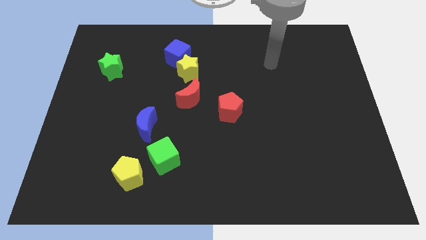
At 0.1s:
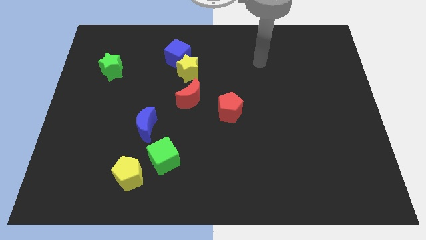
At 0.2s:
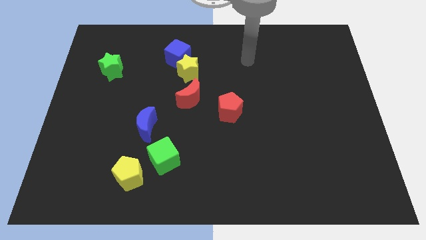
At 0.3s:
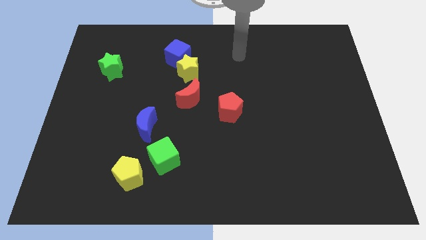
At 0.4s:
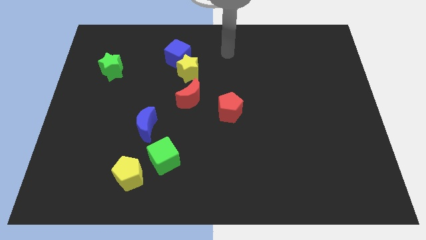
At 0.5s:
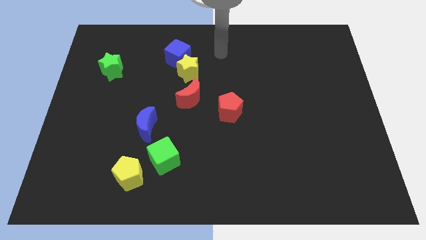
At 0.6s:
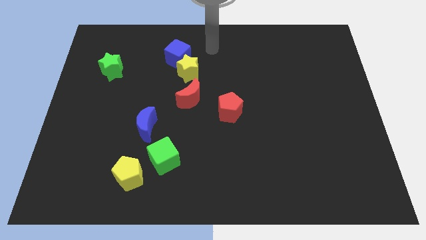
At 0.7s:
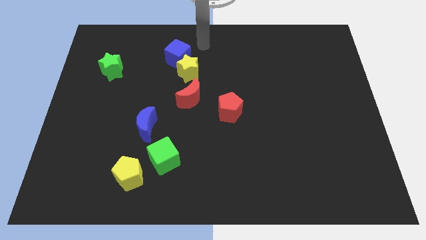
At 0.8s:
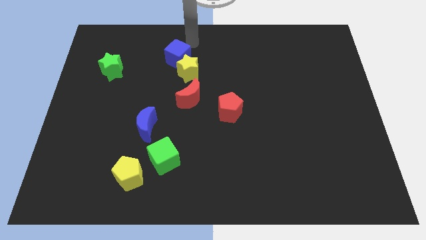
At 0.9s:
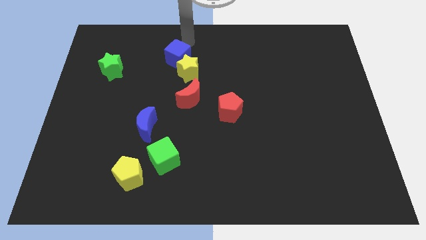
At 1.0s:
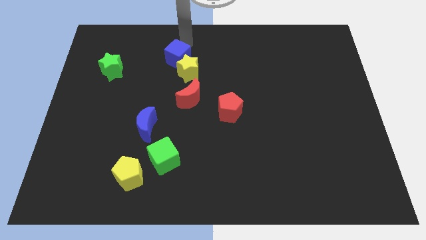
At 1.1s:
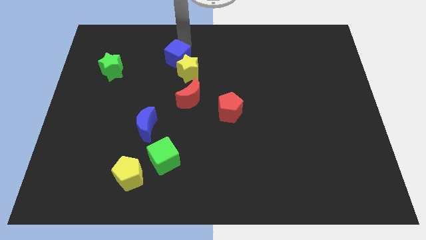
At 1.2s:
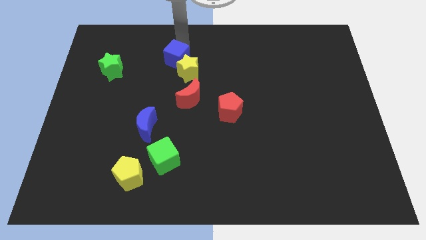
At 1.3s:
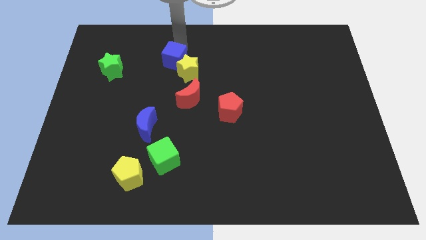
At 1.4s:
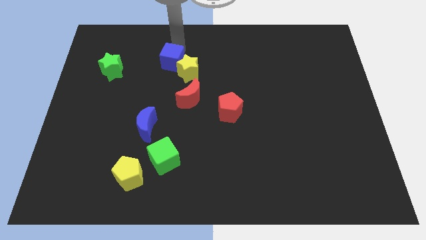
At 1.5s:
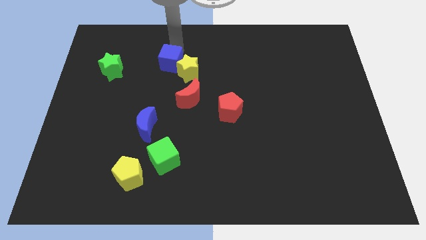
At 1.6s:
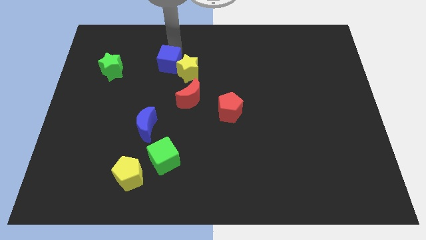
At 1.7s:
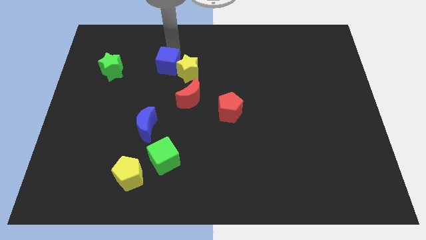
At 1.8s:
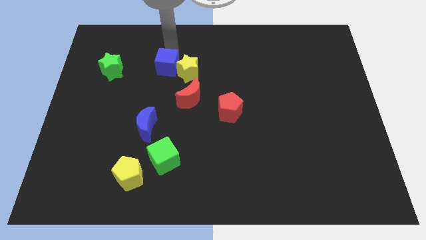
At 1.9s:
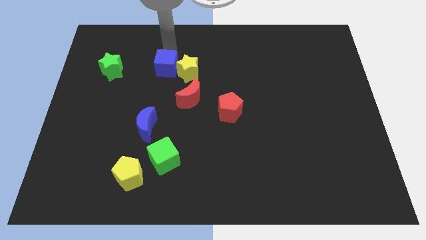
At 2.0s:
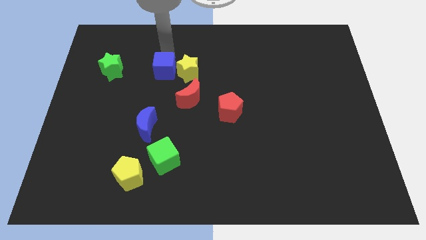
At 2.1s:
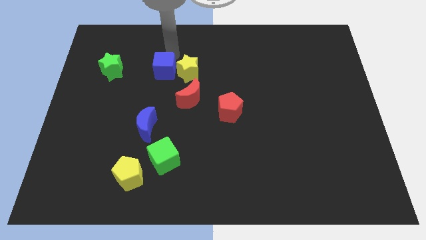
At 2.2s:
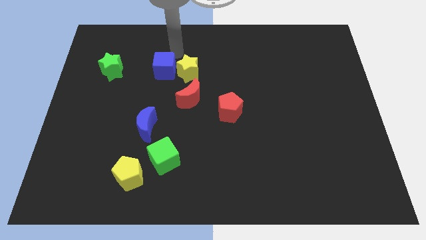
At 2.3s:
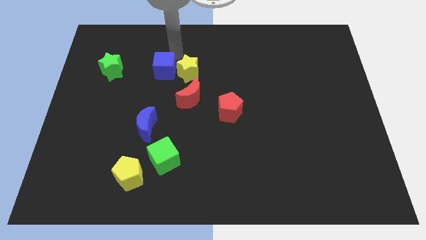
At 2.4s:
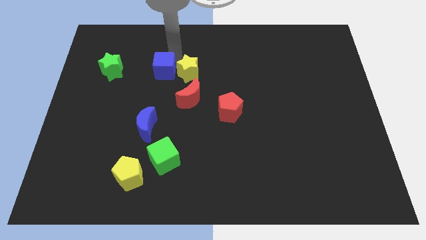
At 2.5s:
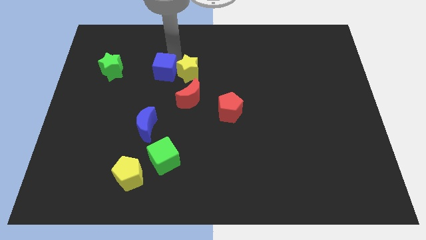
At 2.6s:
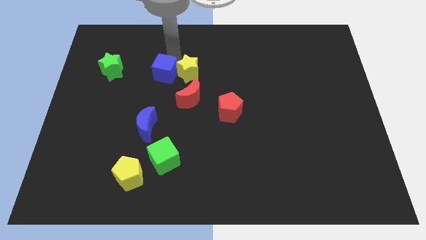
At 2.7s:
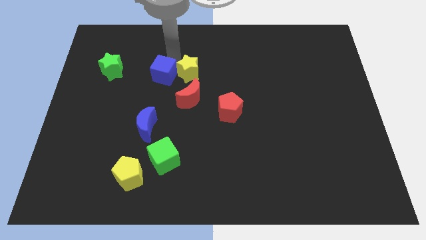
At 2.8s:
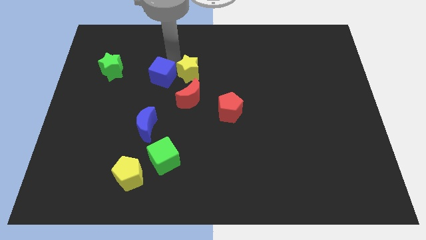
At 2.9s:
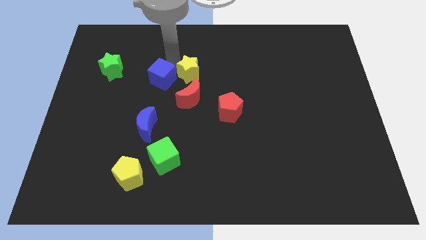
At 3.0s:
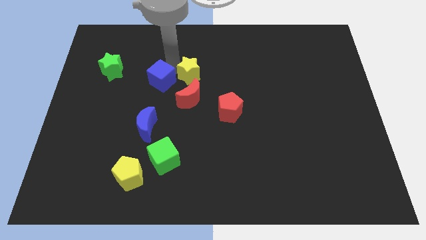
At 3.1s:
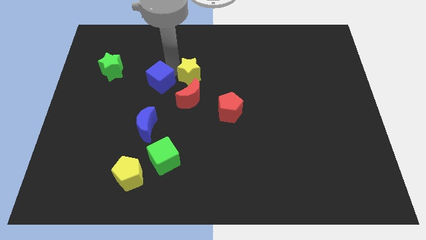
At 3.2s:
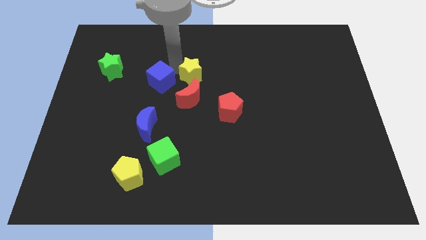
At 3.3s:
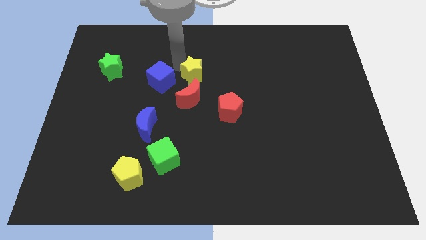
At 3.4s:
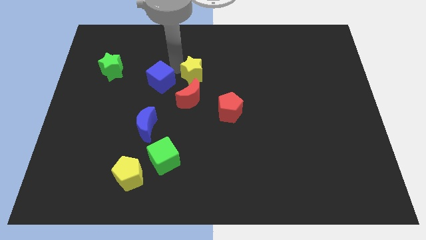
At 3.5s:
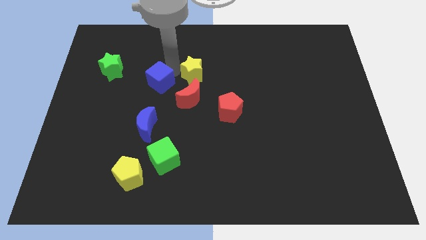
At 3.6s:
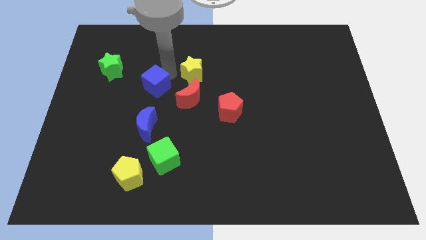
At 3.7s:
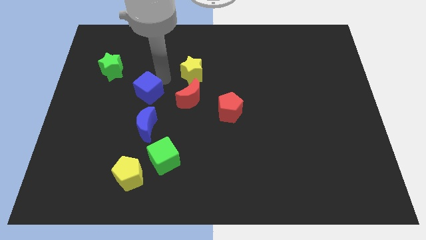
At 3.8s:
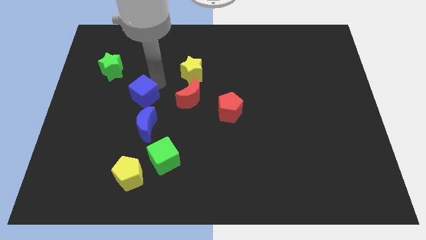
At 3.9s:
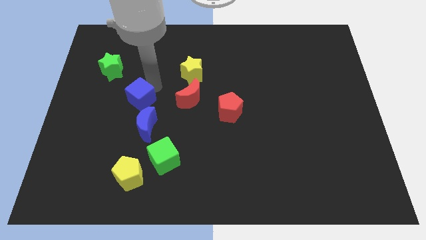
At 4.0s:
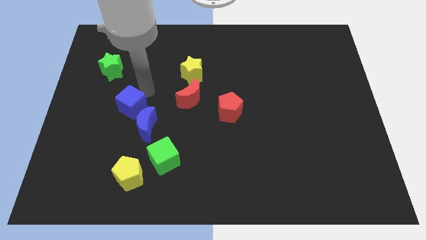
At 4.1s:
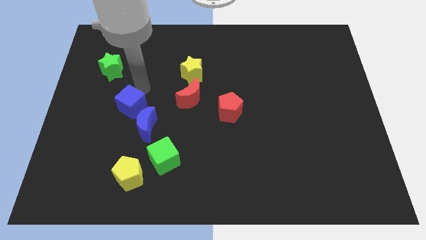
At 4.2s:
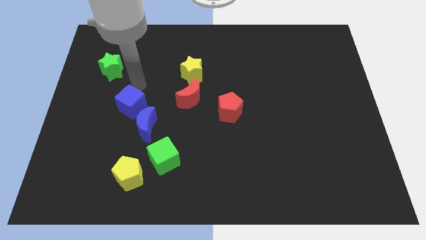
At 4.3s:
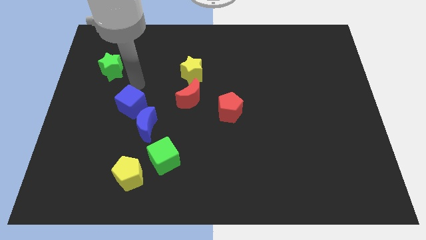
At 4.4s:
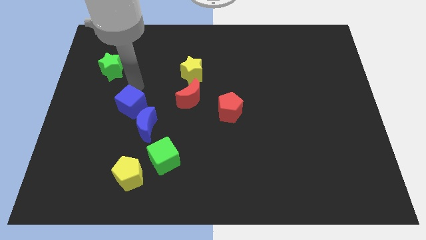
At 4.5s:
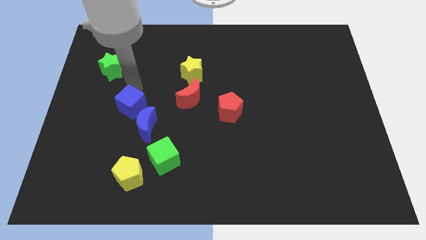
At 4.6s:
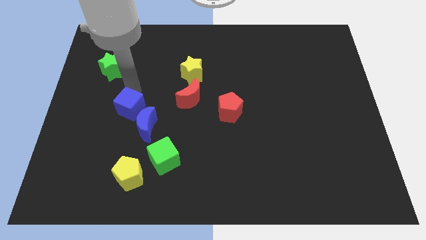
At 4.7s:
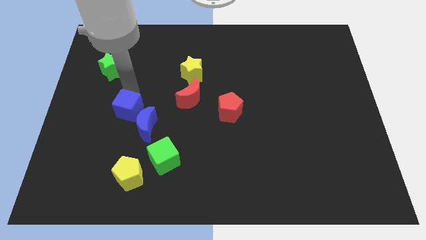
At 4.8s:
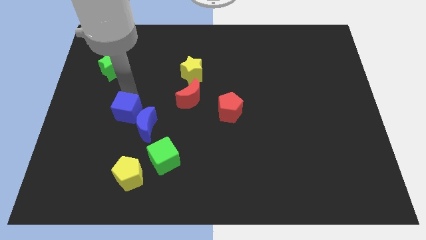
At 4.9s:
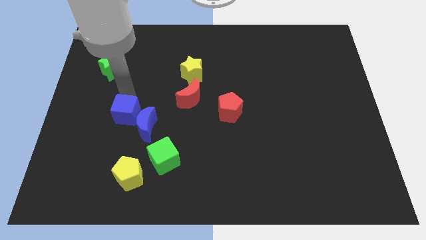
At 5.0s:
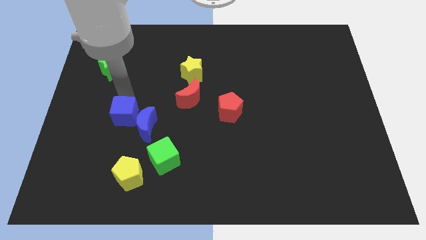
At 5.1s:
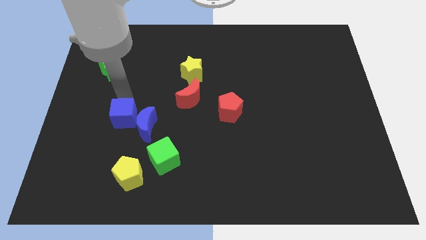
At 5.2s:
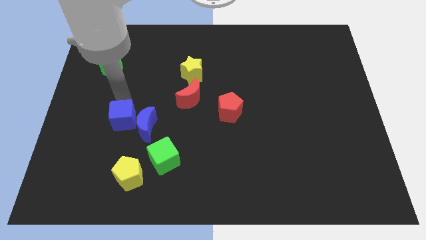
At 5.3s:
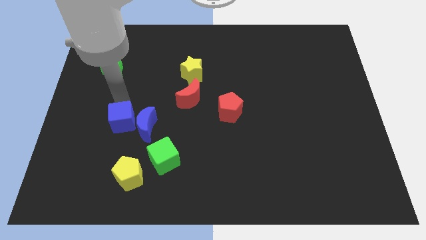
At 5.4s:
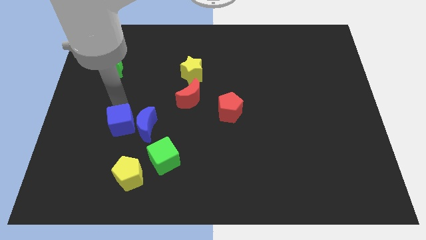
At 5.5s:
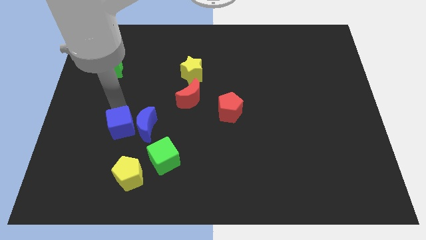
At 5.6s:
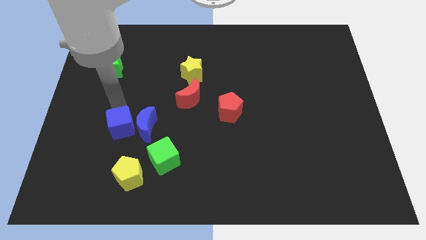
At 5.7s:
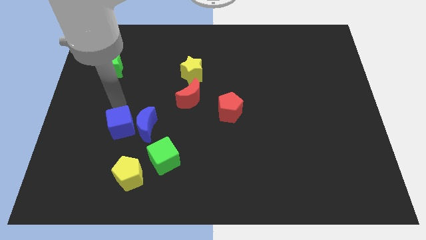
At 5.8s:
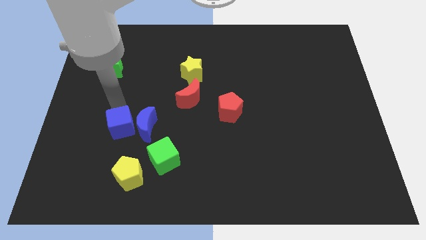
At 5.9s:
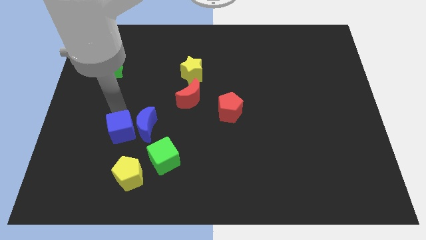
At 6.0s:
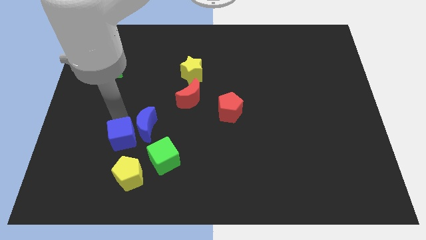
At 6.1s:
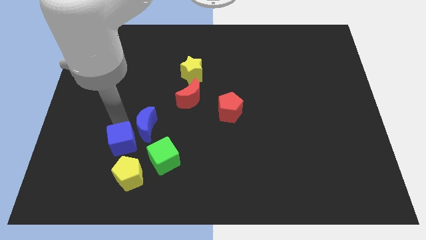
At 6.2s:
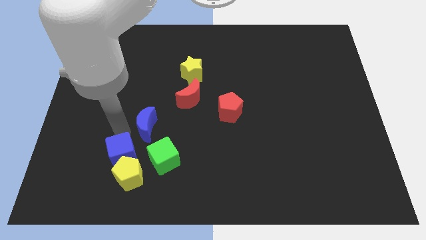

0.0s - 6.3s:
slide the blue cube to the yellow pentagon

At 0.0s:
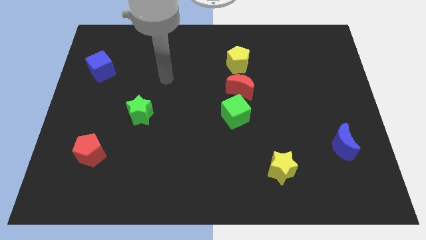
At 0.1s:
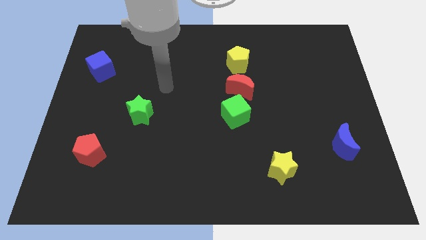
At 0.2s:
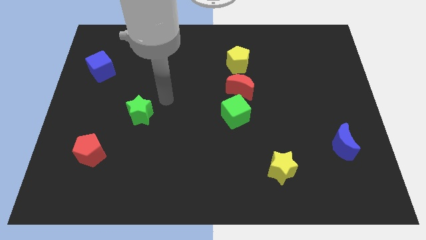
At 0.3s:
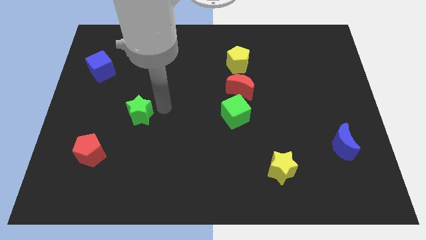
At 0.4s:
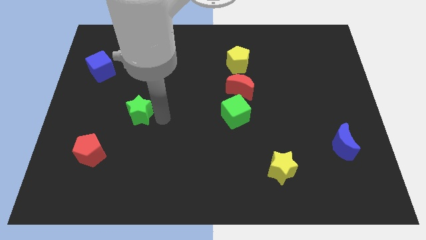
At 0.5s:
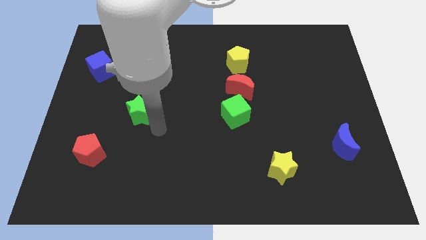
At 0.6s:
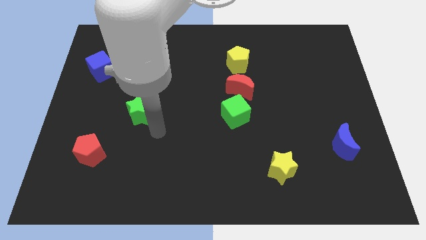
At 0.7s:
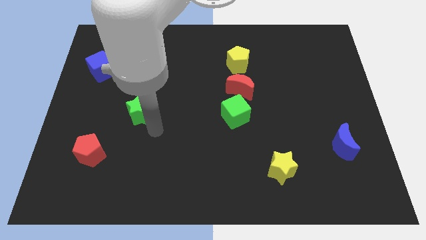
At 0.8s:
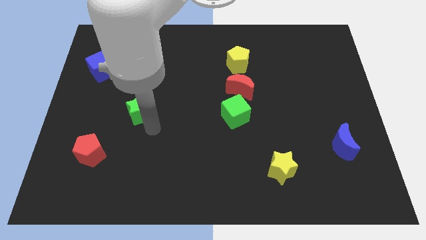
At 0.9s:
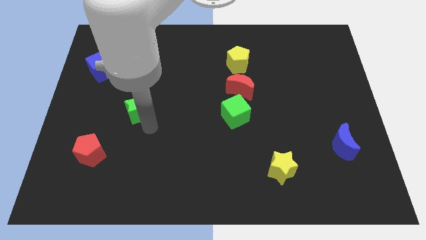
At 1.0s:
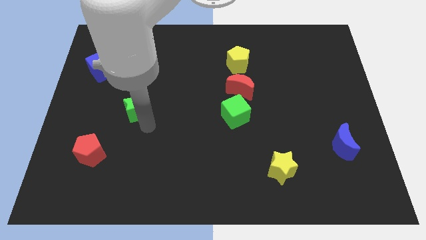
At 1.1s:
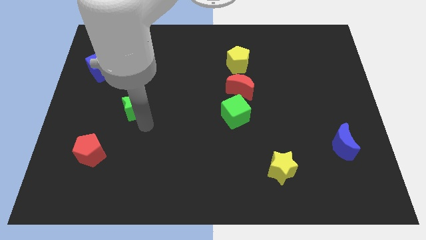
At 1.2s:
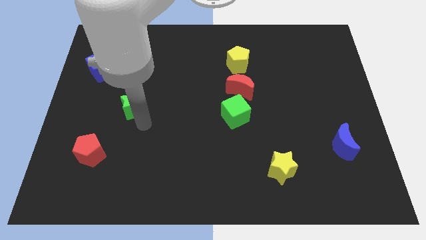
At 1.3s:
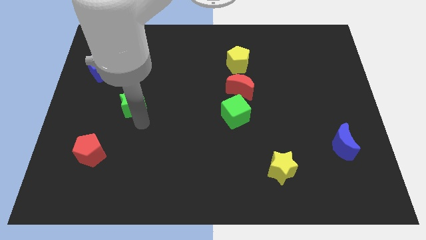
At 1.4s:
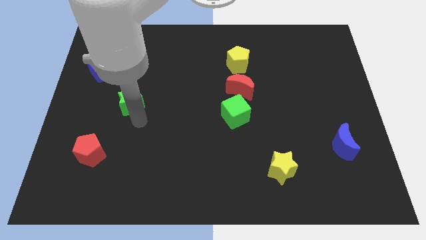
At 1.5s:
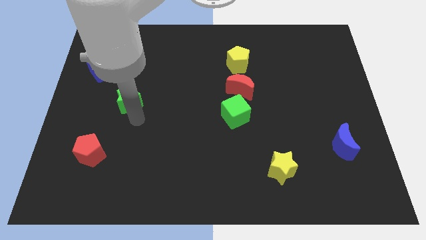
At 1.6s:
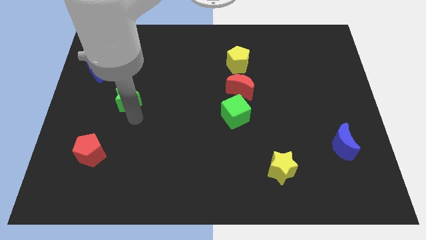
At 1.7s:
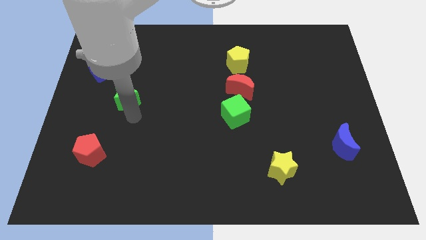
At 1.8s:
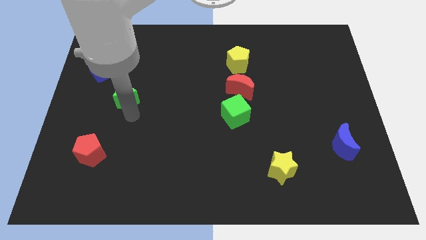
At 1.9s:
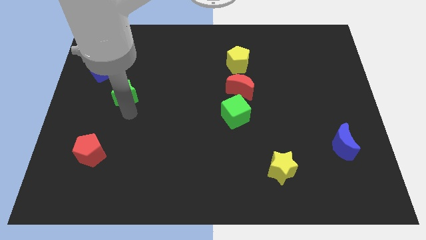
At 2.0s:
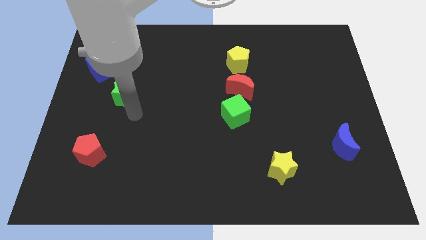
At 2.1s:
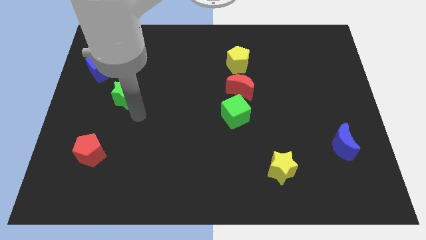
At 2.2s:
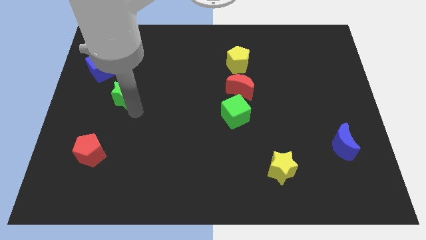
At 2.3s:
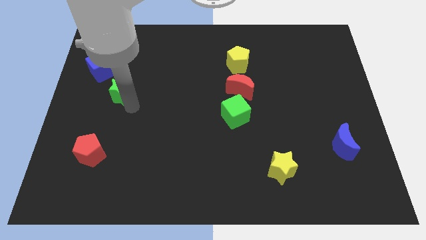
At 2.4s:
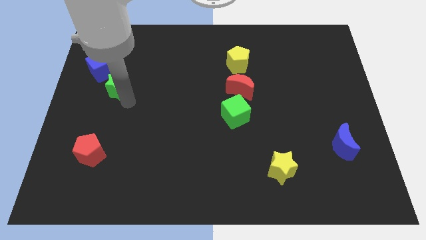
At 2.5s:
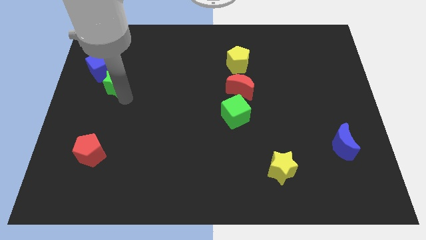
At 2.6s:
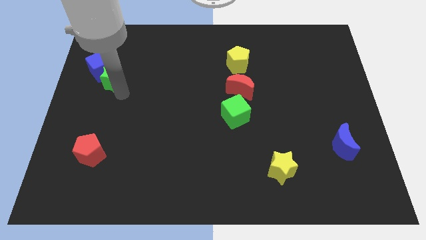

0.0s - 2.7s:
move the green star towards the blue cube
